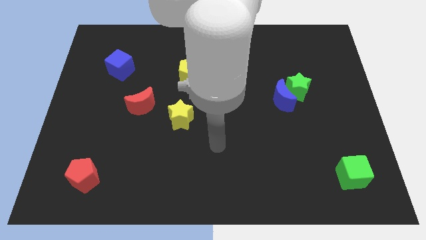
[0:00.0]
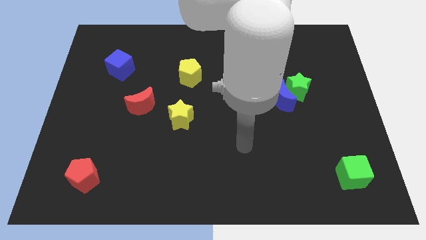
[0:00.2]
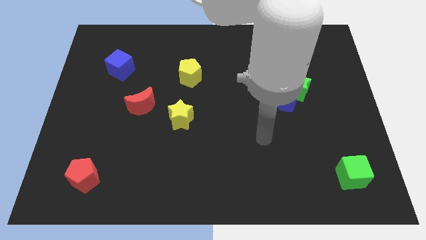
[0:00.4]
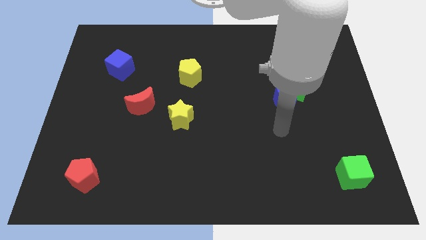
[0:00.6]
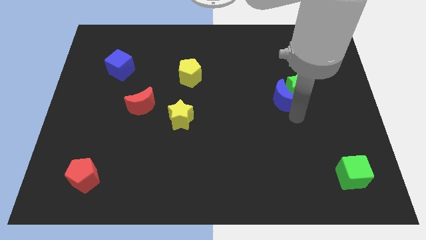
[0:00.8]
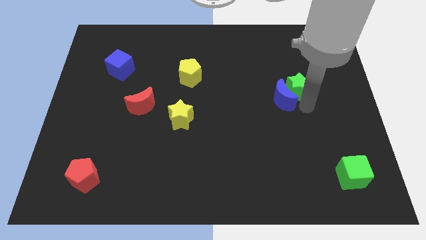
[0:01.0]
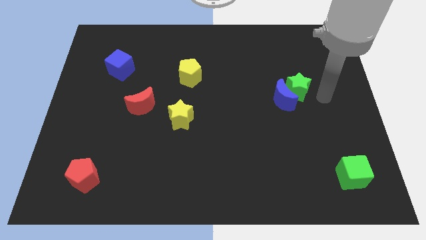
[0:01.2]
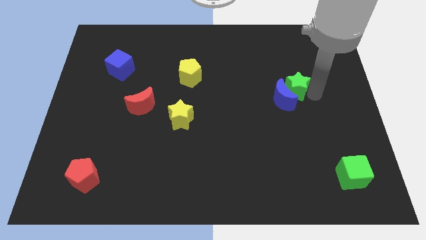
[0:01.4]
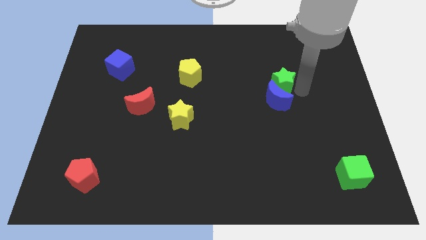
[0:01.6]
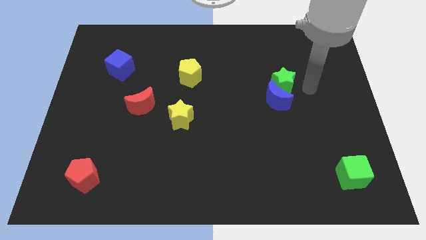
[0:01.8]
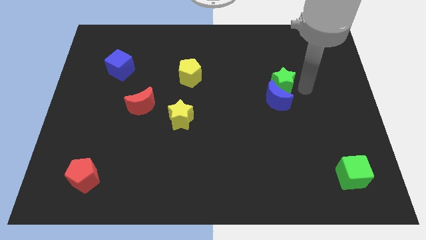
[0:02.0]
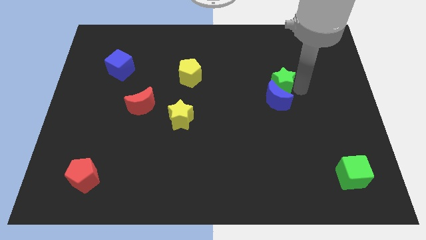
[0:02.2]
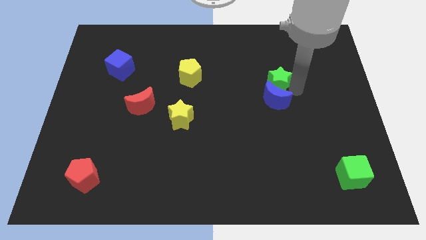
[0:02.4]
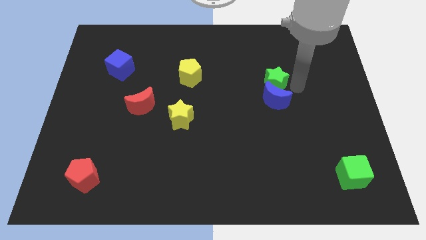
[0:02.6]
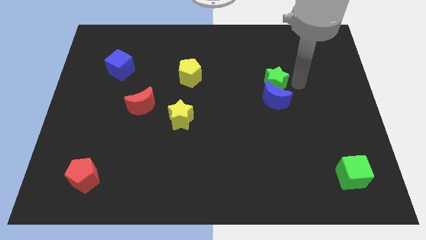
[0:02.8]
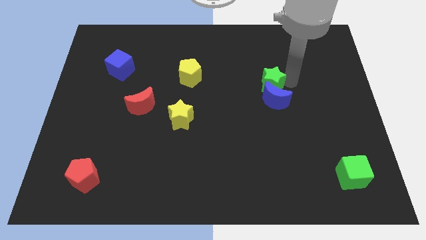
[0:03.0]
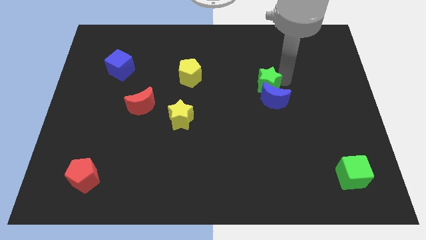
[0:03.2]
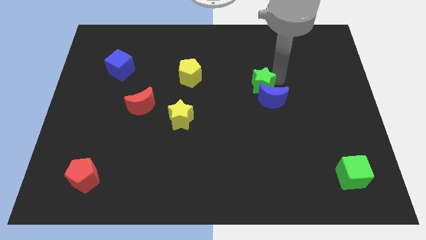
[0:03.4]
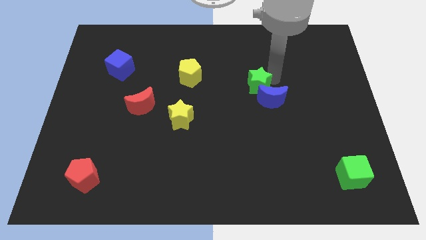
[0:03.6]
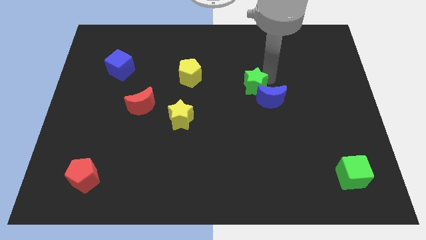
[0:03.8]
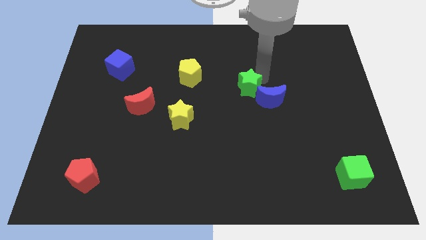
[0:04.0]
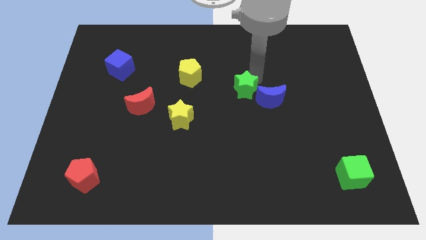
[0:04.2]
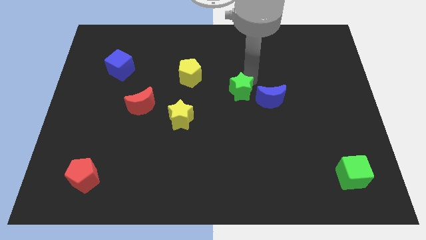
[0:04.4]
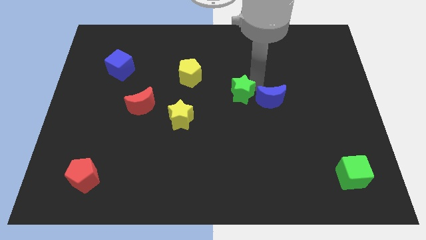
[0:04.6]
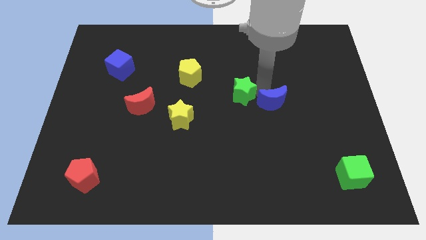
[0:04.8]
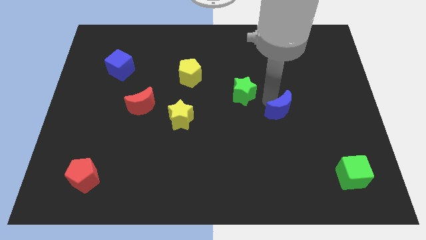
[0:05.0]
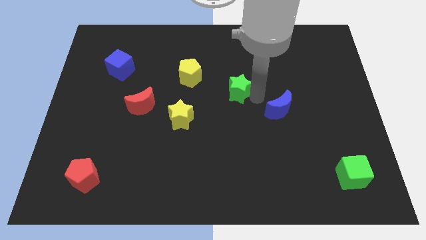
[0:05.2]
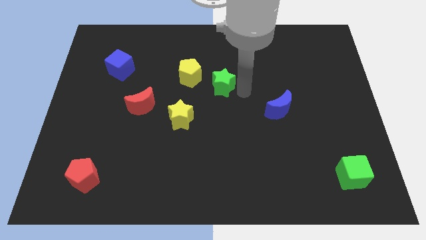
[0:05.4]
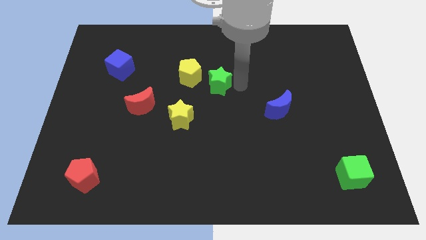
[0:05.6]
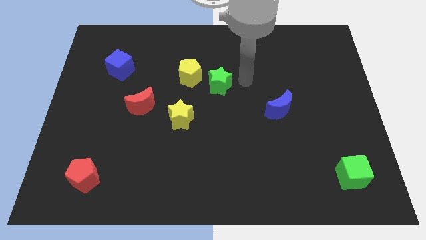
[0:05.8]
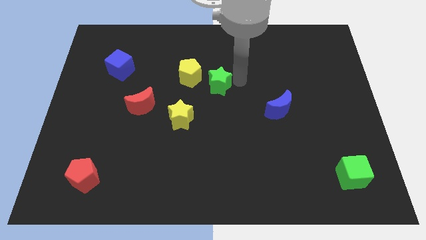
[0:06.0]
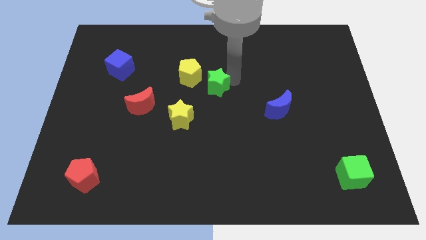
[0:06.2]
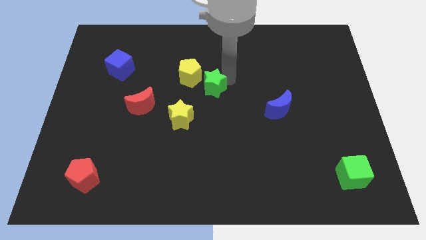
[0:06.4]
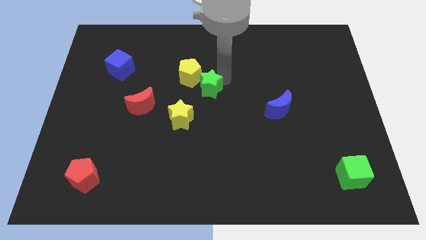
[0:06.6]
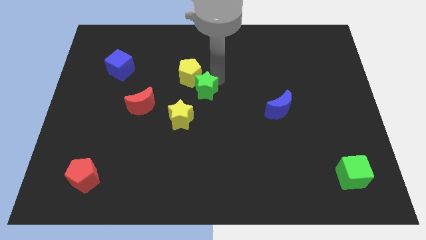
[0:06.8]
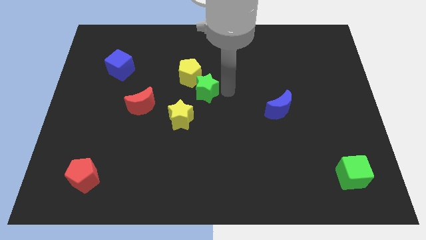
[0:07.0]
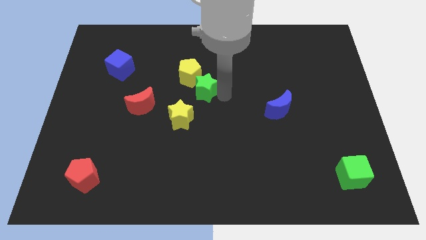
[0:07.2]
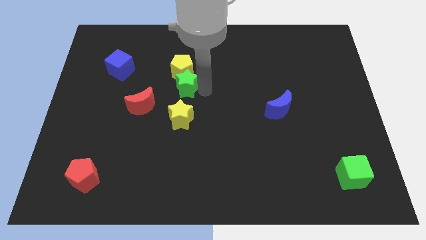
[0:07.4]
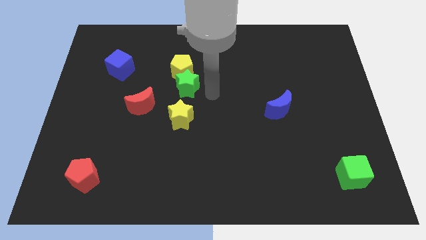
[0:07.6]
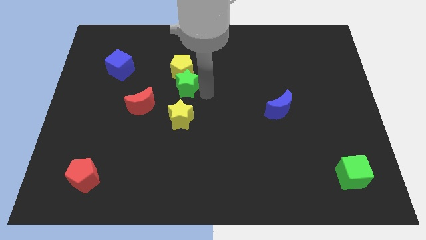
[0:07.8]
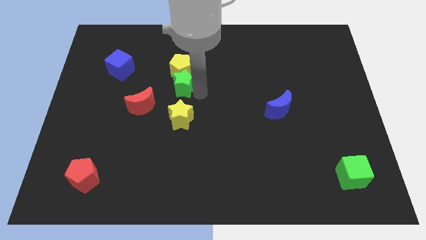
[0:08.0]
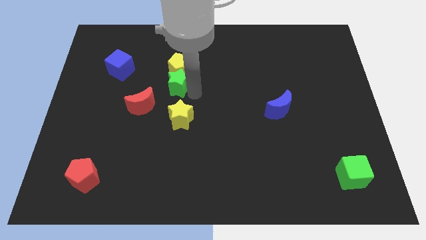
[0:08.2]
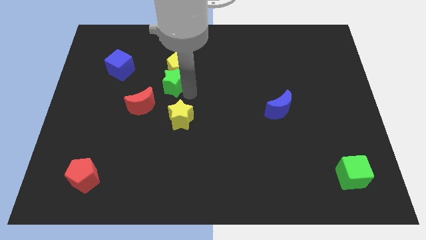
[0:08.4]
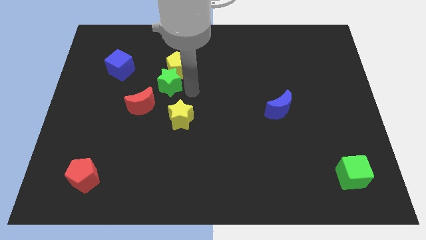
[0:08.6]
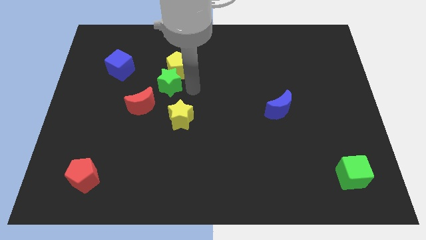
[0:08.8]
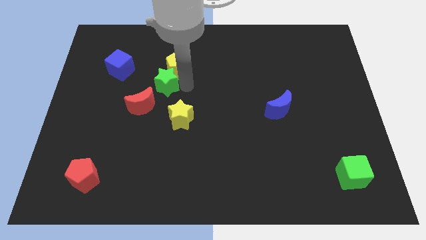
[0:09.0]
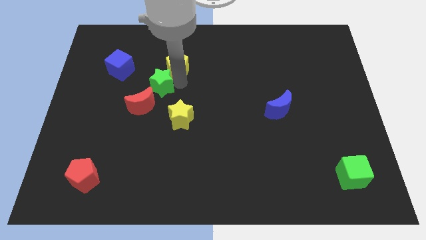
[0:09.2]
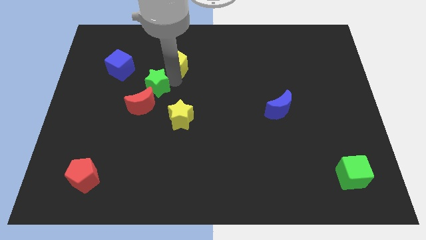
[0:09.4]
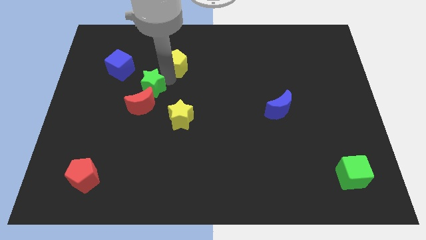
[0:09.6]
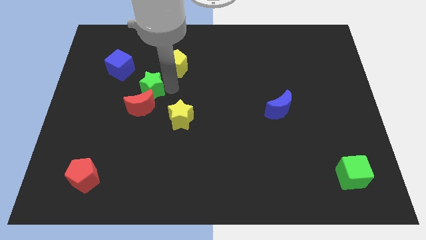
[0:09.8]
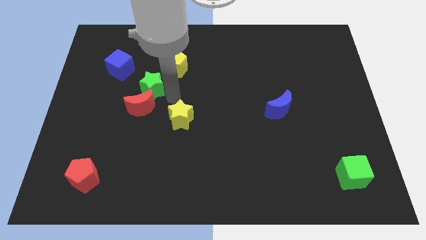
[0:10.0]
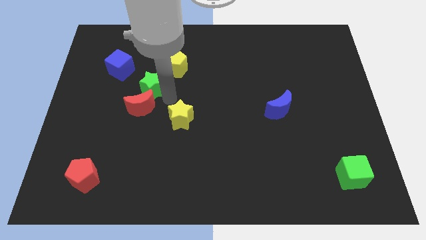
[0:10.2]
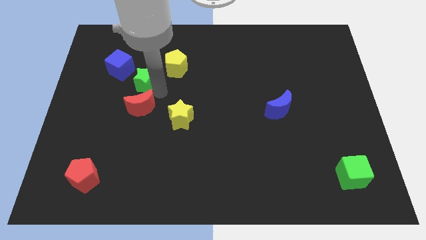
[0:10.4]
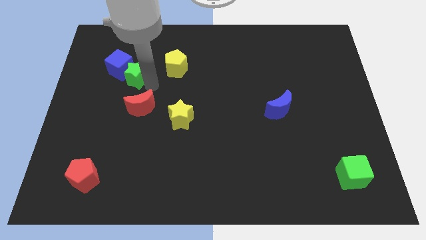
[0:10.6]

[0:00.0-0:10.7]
move the green star to the blue cube

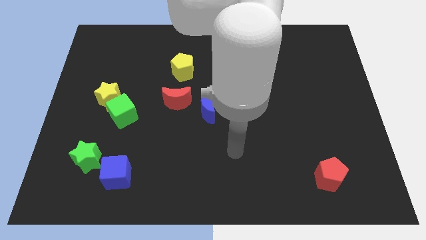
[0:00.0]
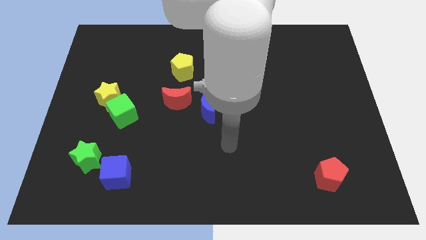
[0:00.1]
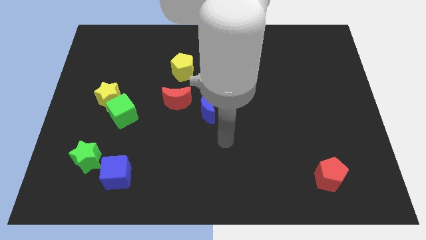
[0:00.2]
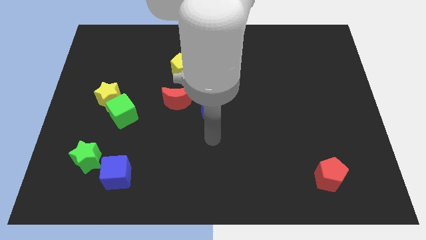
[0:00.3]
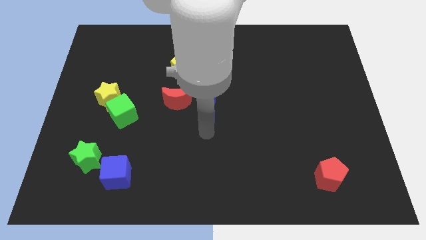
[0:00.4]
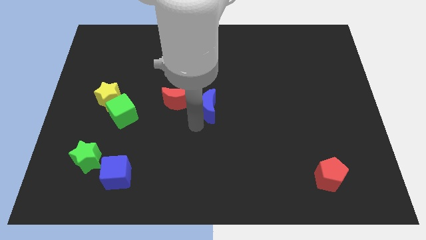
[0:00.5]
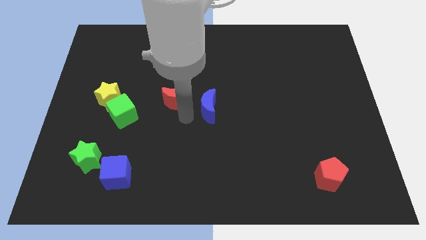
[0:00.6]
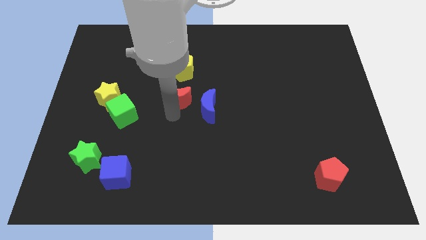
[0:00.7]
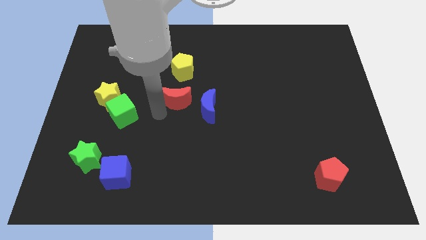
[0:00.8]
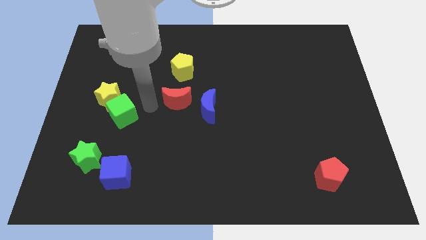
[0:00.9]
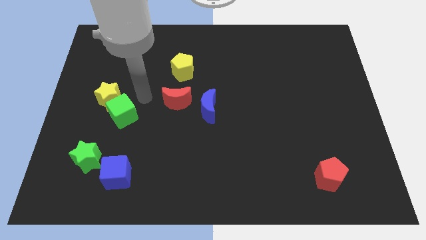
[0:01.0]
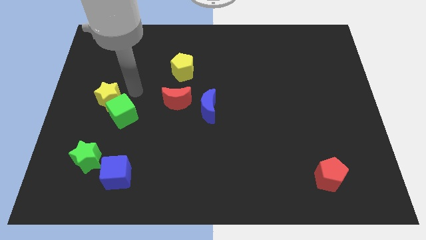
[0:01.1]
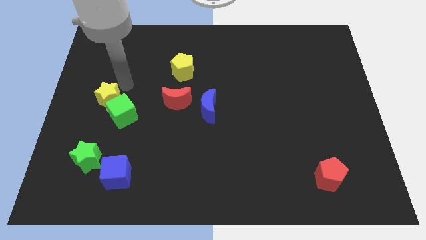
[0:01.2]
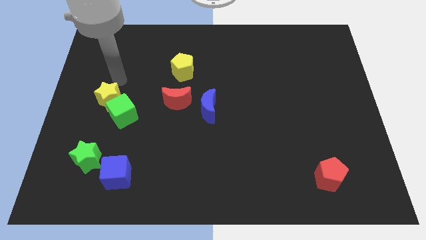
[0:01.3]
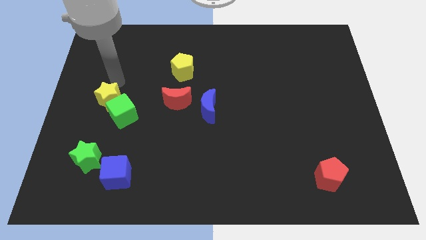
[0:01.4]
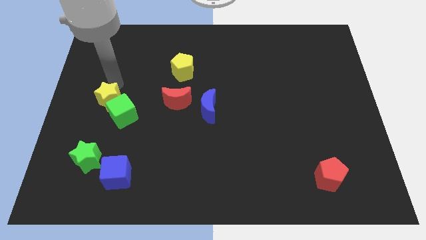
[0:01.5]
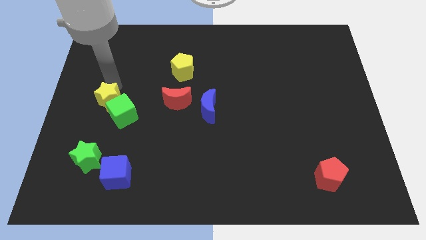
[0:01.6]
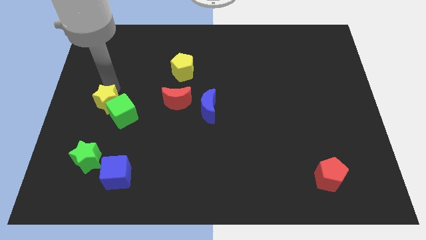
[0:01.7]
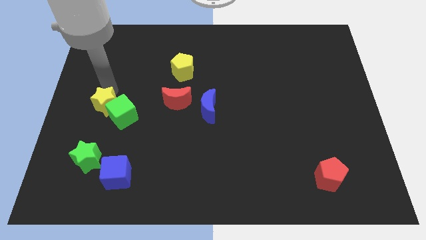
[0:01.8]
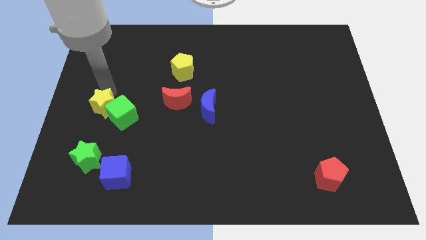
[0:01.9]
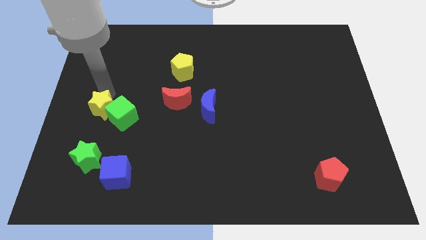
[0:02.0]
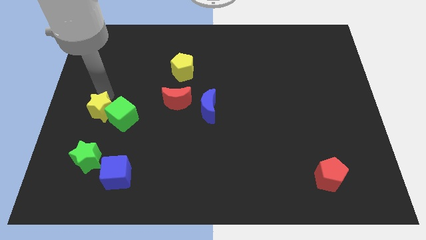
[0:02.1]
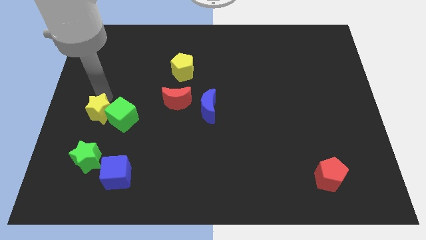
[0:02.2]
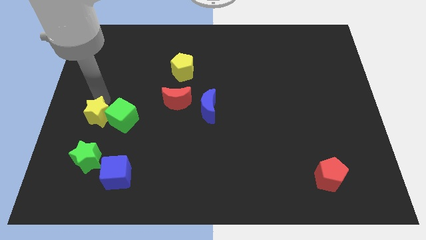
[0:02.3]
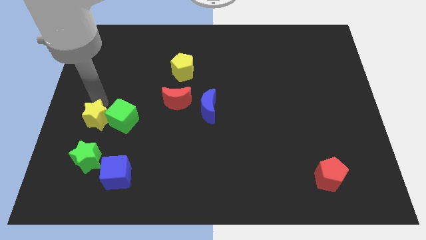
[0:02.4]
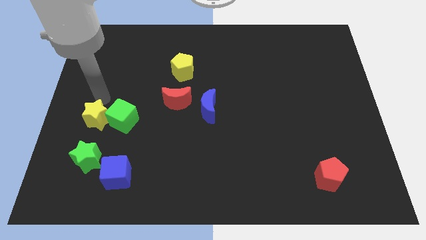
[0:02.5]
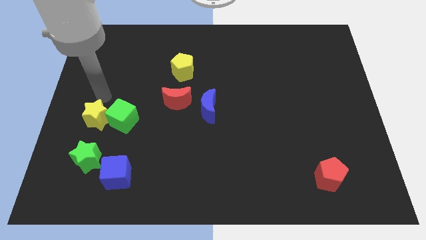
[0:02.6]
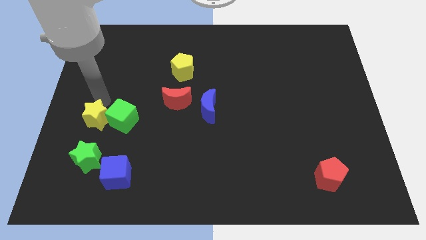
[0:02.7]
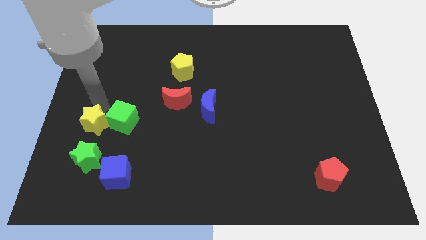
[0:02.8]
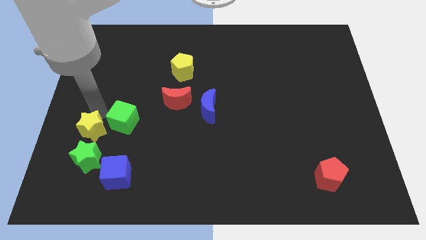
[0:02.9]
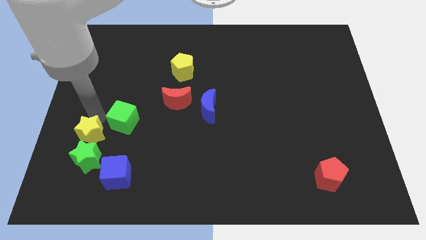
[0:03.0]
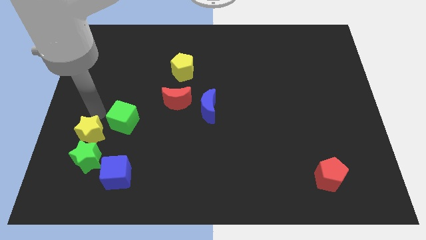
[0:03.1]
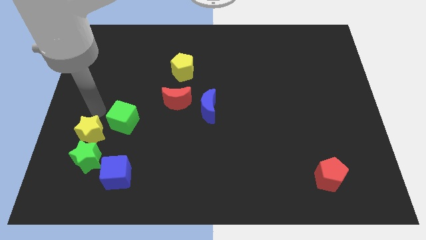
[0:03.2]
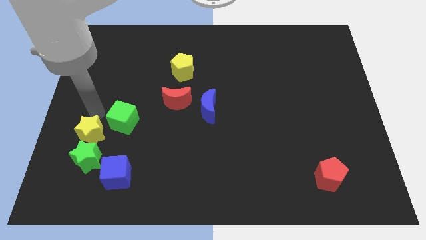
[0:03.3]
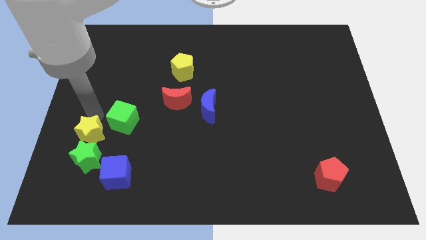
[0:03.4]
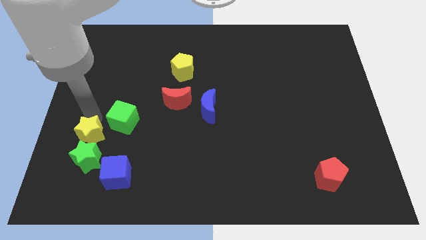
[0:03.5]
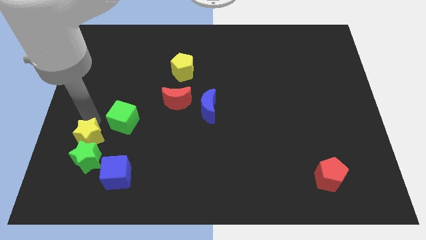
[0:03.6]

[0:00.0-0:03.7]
slide the yellow star towards the green star
